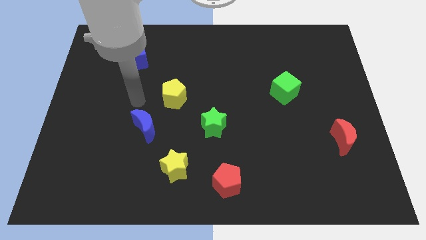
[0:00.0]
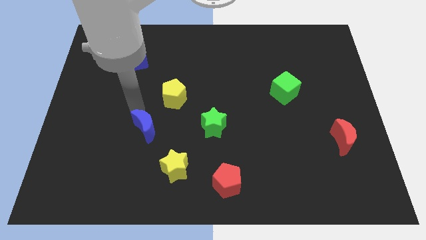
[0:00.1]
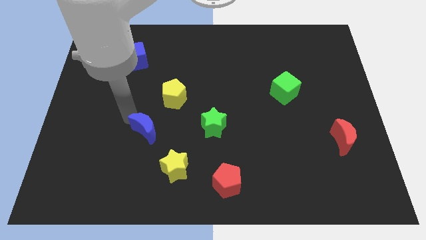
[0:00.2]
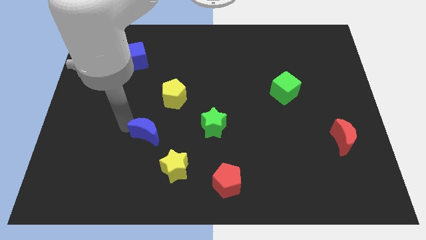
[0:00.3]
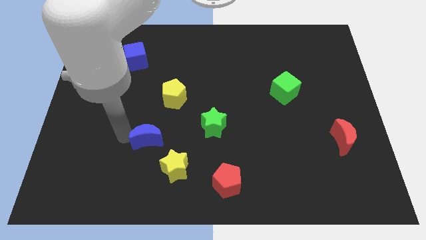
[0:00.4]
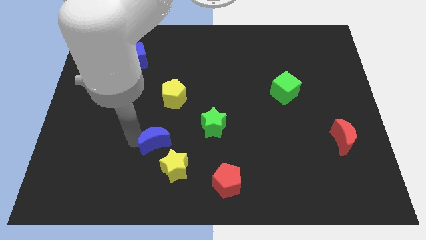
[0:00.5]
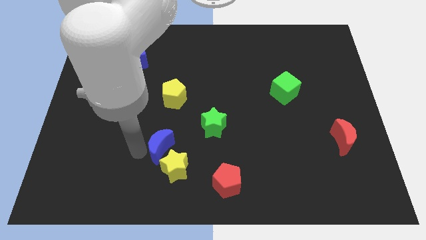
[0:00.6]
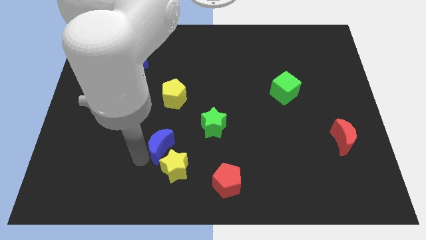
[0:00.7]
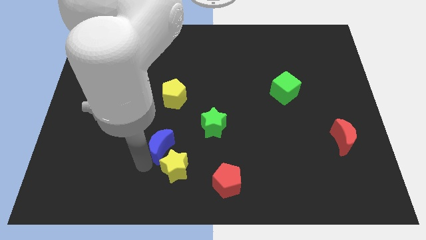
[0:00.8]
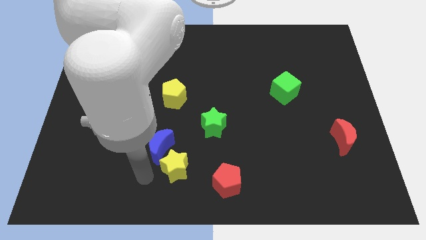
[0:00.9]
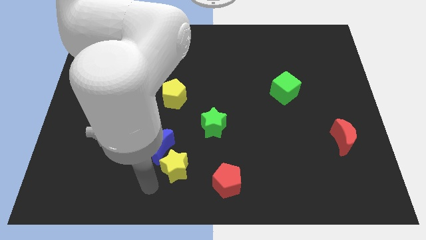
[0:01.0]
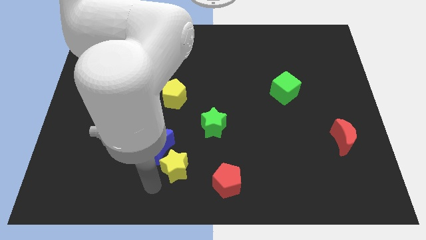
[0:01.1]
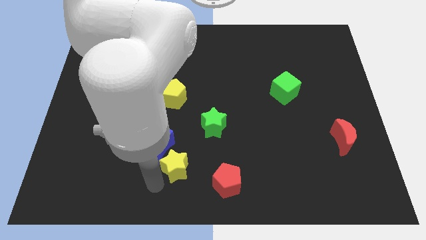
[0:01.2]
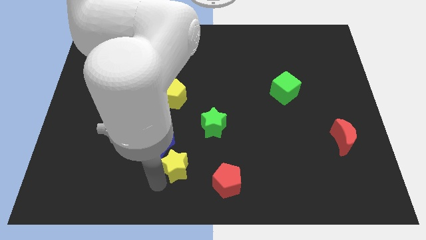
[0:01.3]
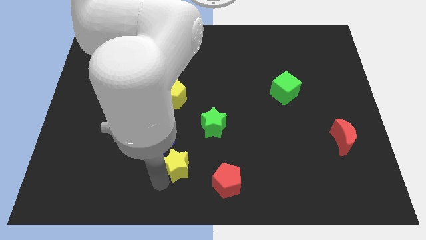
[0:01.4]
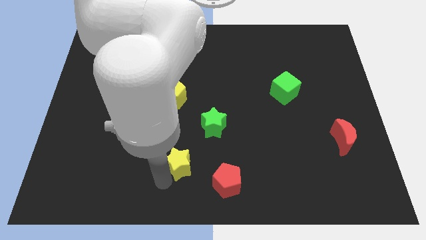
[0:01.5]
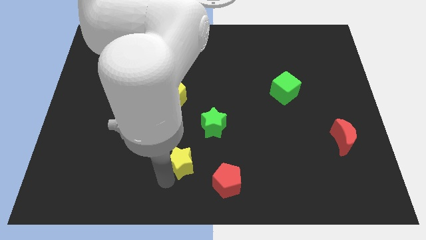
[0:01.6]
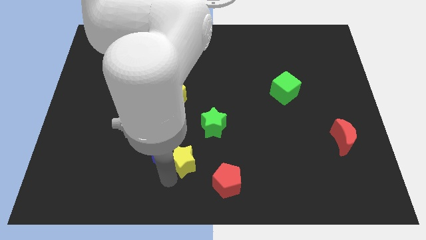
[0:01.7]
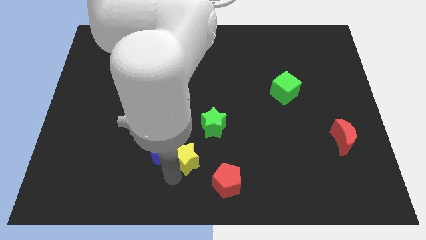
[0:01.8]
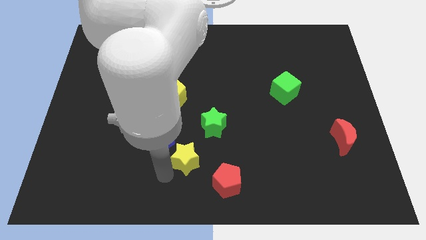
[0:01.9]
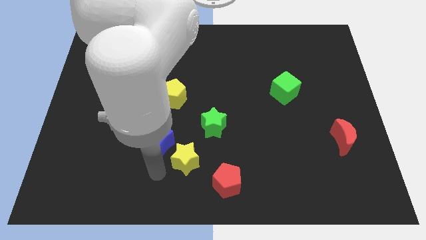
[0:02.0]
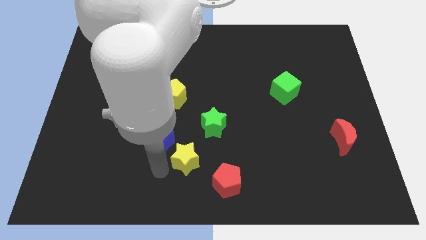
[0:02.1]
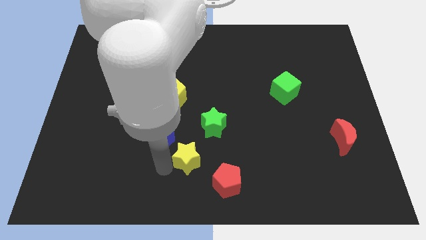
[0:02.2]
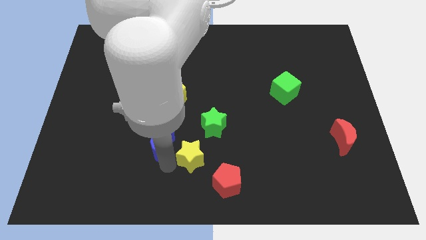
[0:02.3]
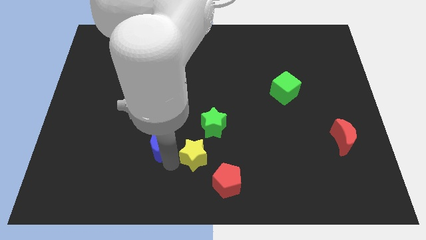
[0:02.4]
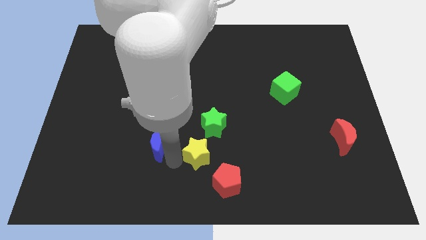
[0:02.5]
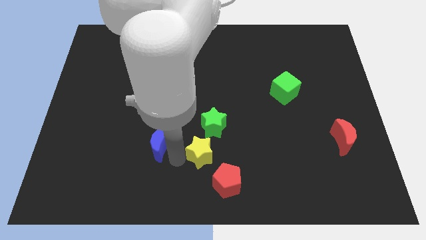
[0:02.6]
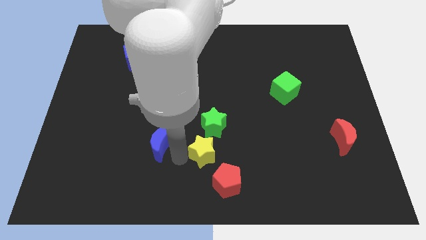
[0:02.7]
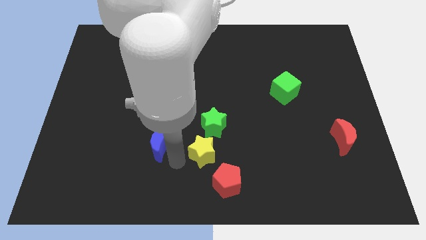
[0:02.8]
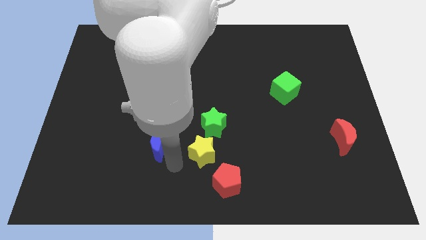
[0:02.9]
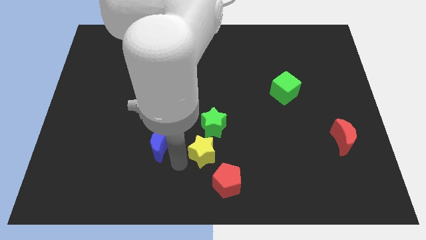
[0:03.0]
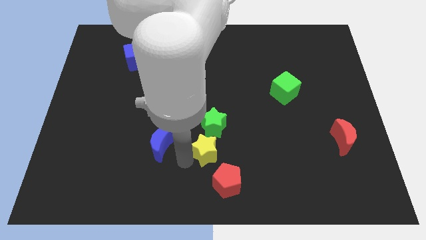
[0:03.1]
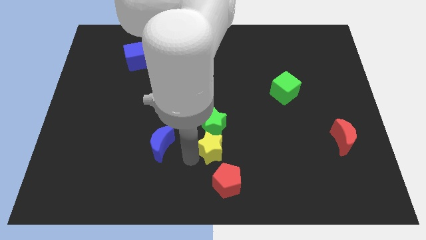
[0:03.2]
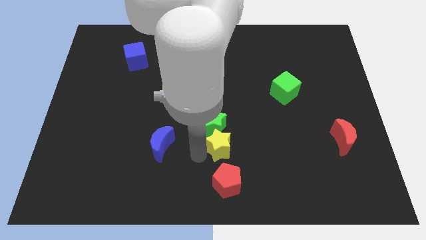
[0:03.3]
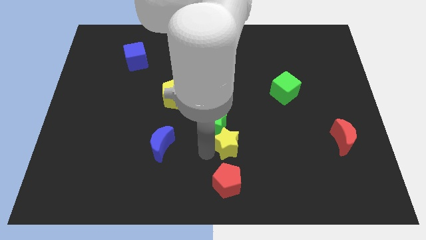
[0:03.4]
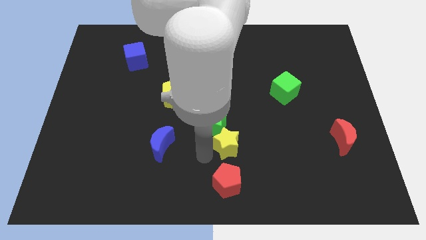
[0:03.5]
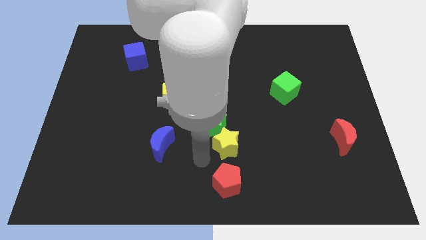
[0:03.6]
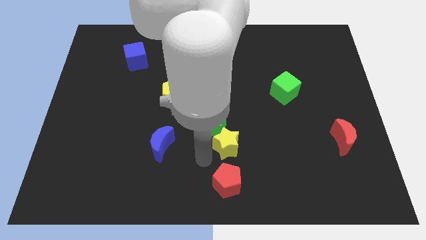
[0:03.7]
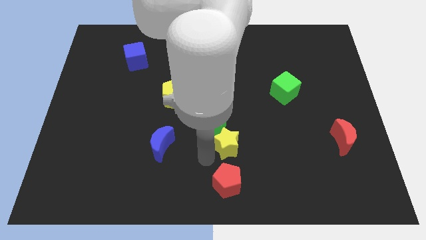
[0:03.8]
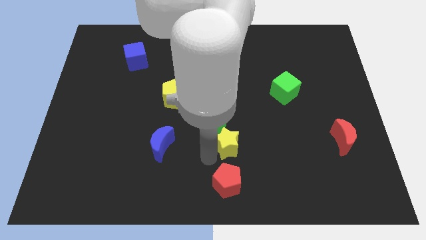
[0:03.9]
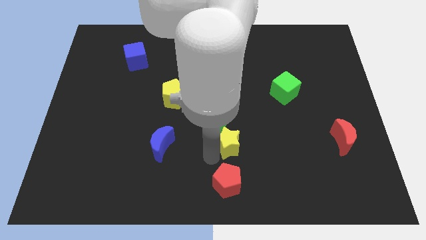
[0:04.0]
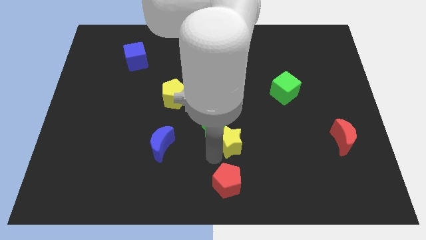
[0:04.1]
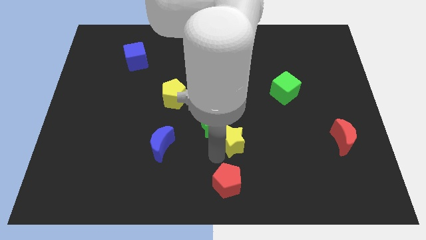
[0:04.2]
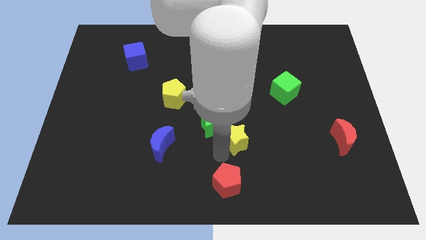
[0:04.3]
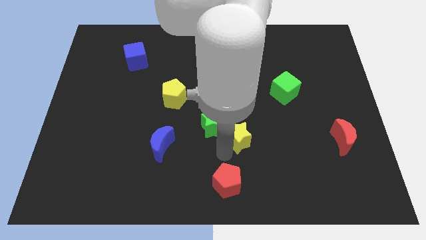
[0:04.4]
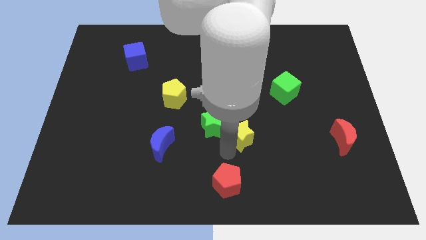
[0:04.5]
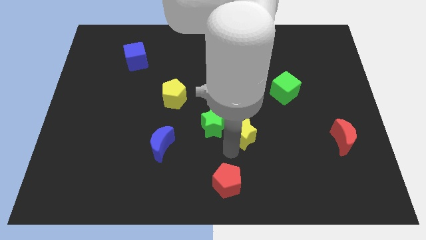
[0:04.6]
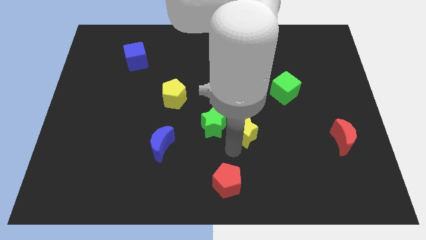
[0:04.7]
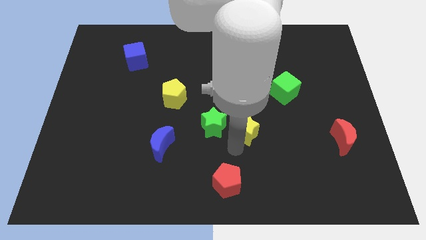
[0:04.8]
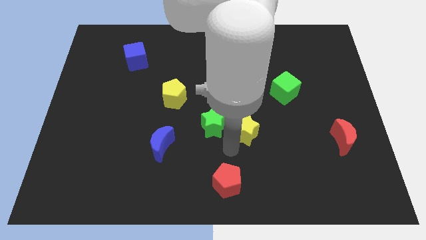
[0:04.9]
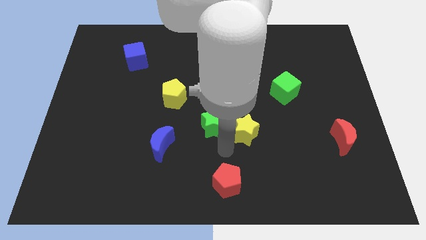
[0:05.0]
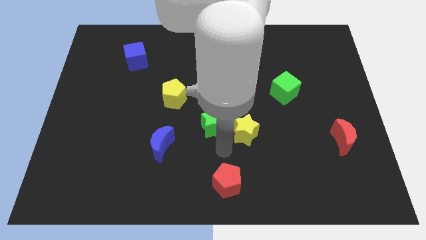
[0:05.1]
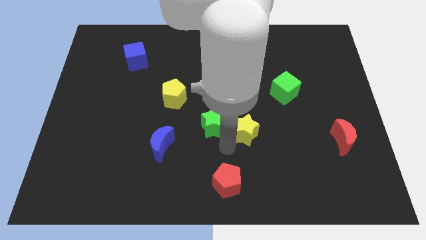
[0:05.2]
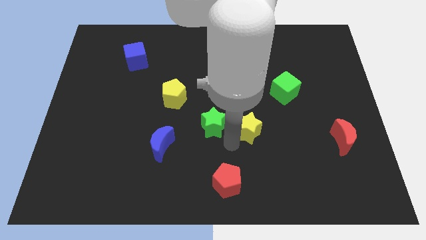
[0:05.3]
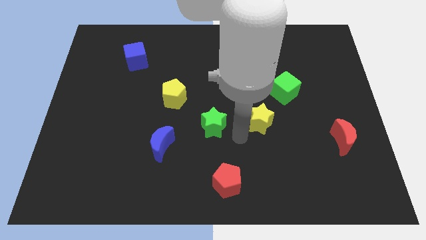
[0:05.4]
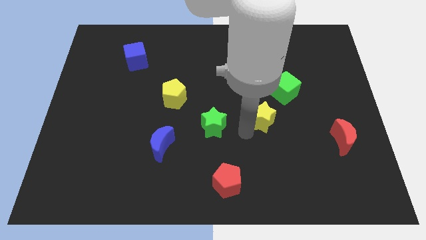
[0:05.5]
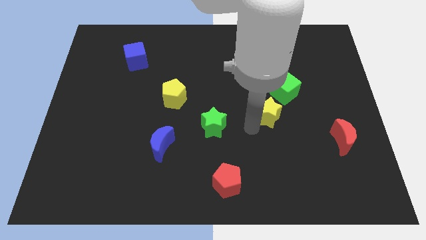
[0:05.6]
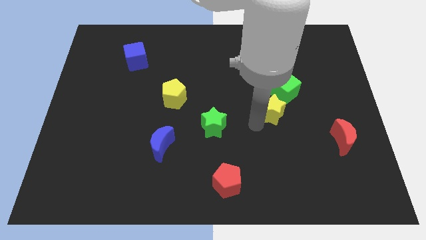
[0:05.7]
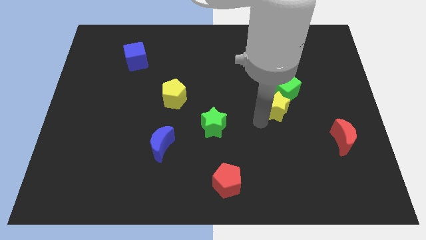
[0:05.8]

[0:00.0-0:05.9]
move the yellow star to the green cube

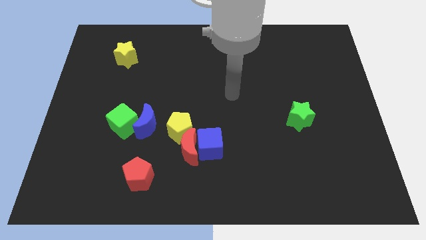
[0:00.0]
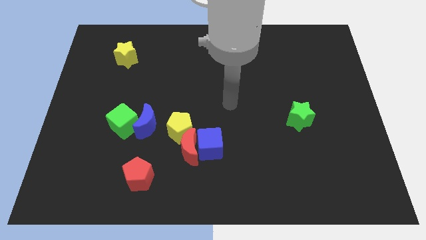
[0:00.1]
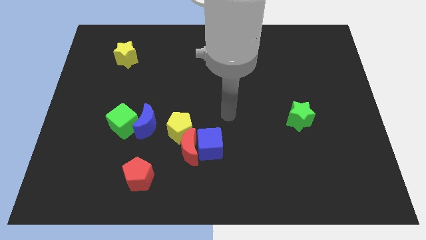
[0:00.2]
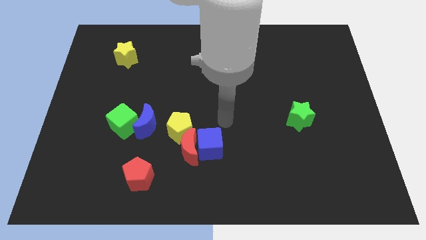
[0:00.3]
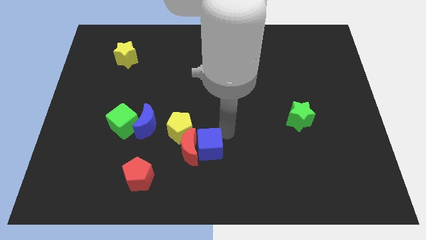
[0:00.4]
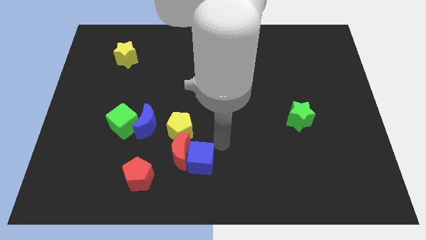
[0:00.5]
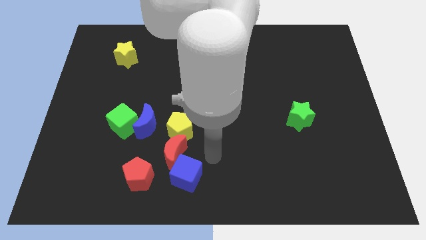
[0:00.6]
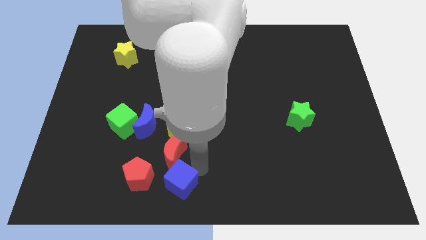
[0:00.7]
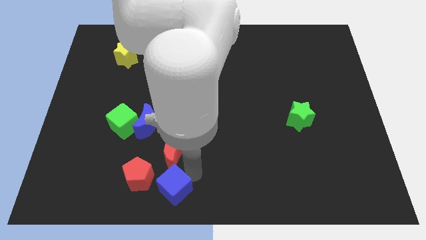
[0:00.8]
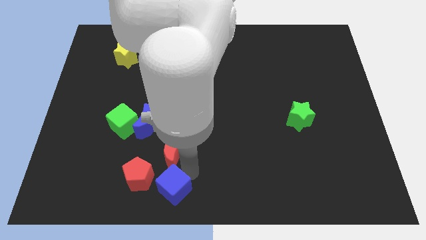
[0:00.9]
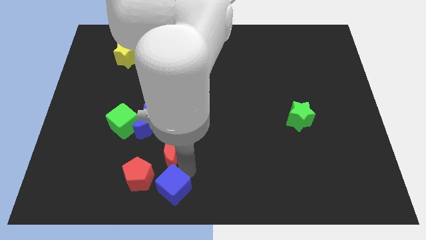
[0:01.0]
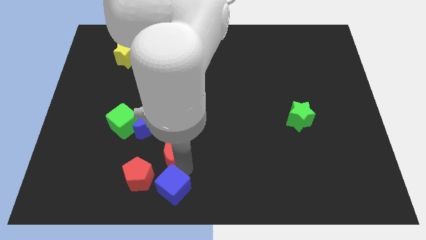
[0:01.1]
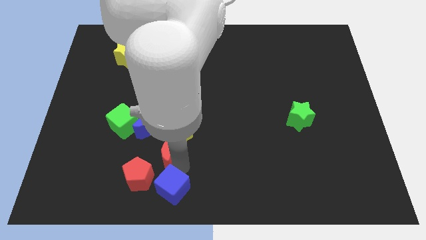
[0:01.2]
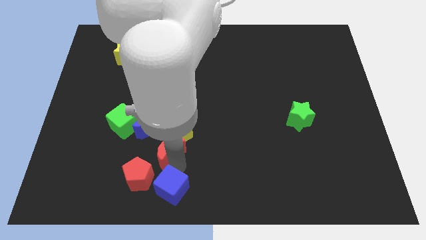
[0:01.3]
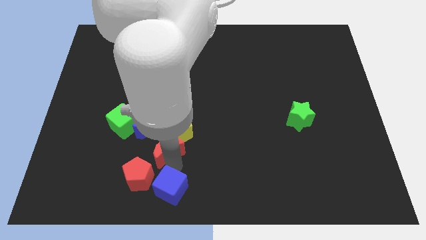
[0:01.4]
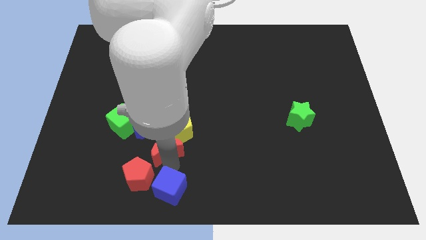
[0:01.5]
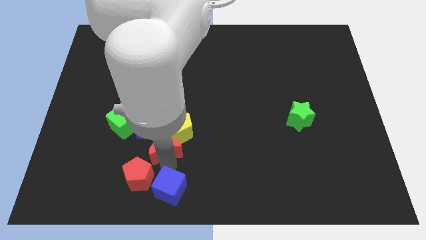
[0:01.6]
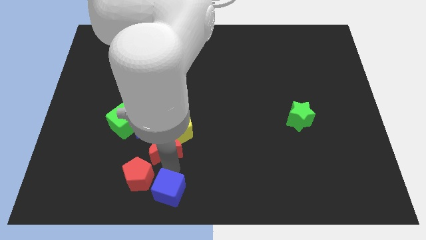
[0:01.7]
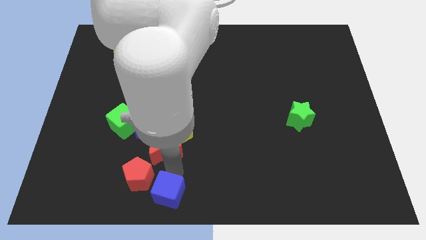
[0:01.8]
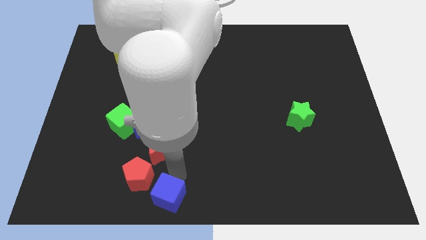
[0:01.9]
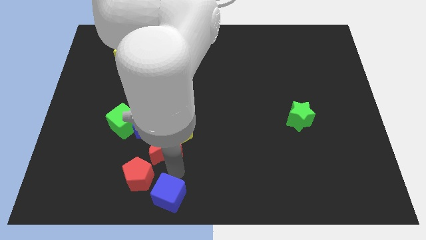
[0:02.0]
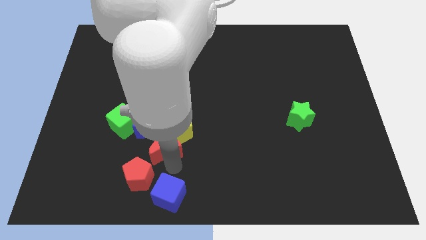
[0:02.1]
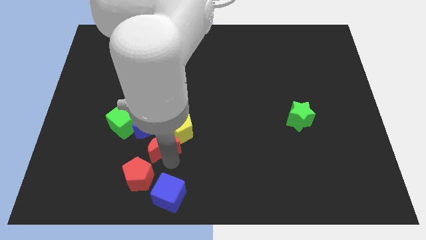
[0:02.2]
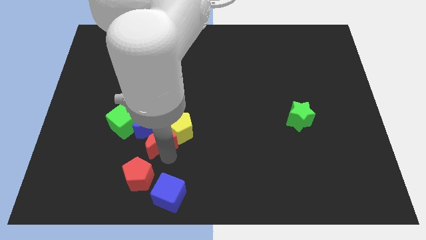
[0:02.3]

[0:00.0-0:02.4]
slide the red moon towards the blue moon
